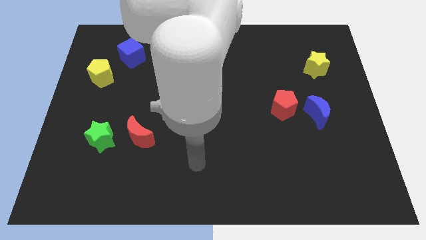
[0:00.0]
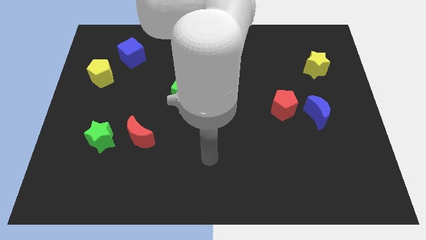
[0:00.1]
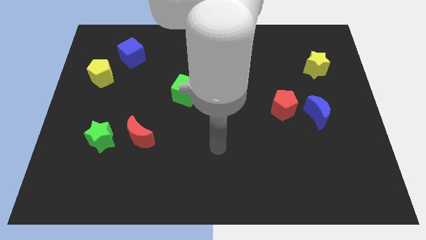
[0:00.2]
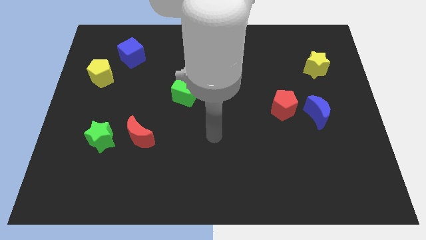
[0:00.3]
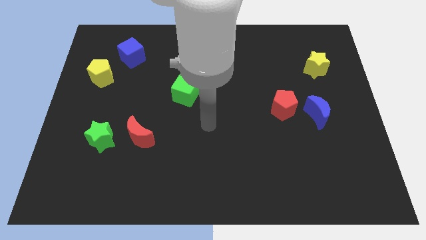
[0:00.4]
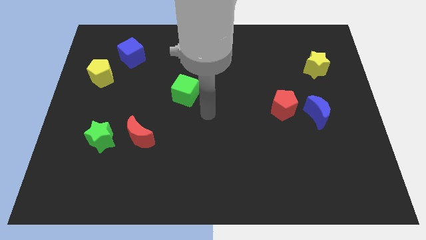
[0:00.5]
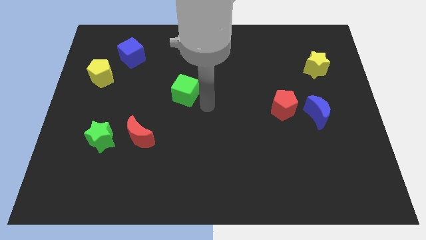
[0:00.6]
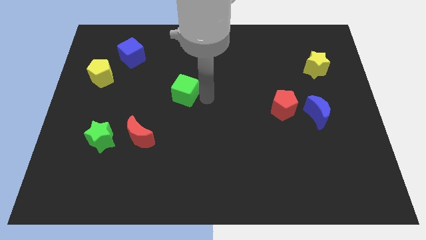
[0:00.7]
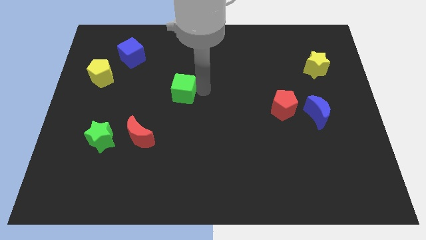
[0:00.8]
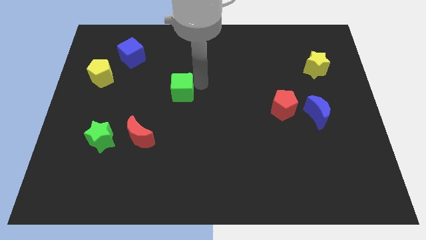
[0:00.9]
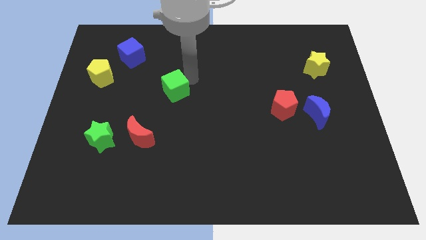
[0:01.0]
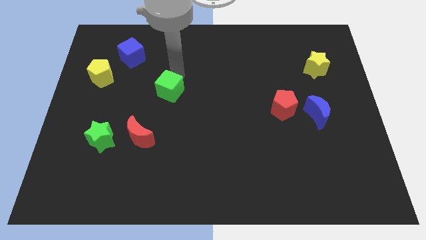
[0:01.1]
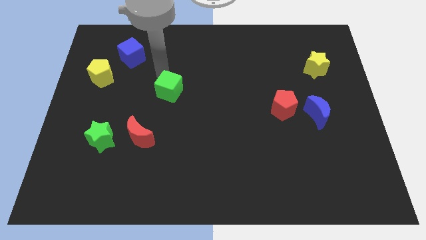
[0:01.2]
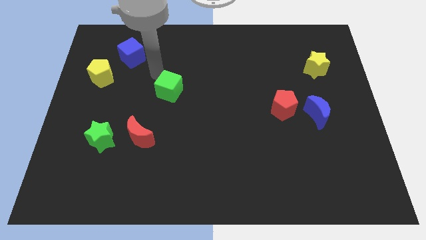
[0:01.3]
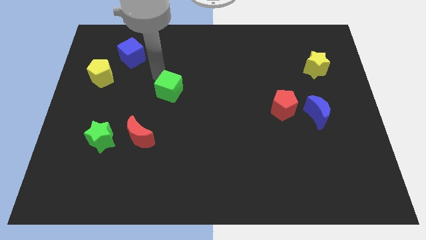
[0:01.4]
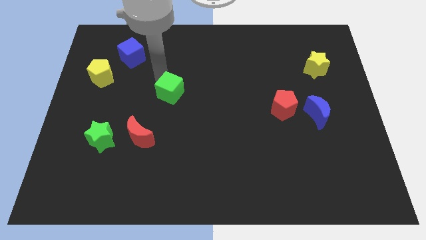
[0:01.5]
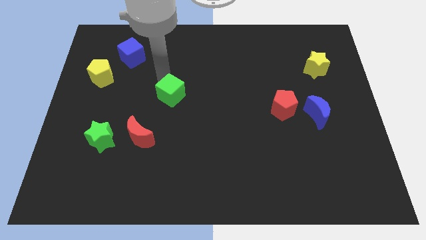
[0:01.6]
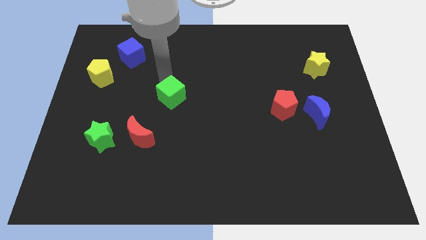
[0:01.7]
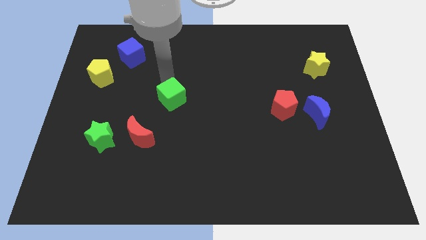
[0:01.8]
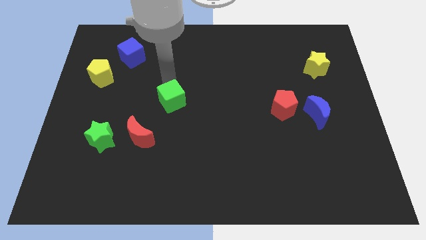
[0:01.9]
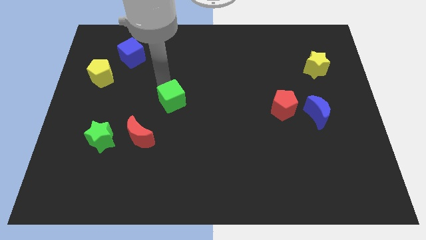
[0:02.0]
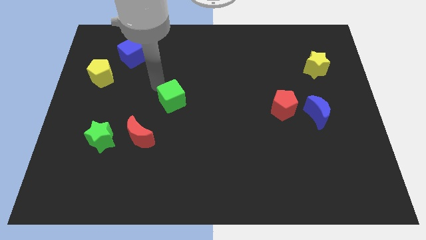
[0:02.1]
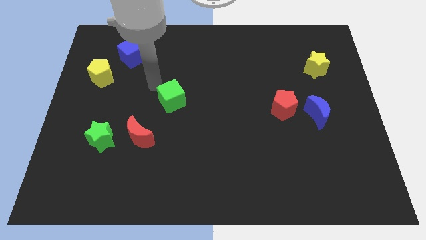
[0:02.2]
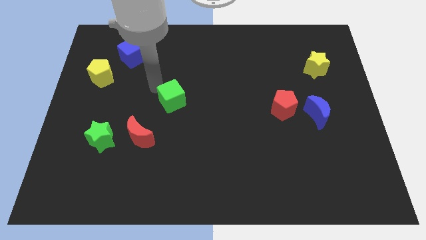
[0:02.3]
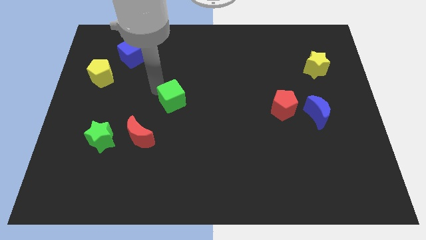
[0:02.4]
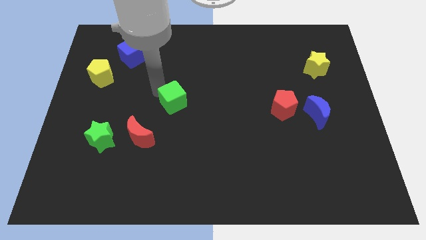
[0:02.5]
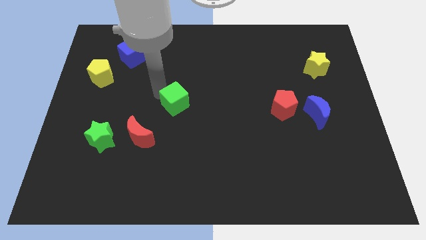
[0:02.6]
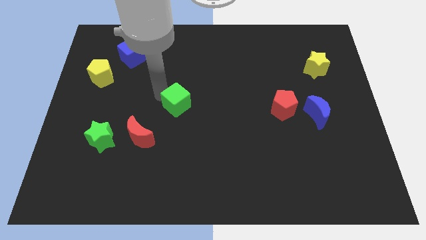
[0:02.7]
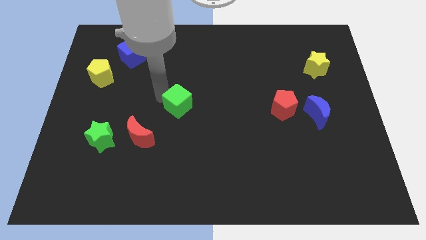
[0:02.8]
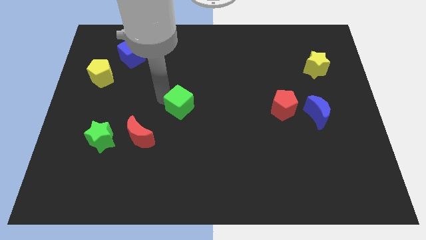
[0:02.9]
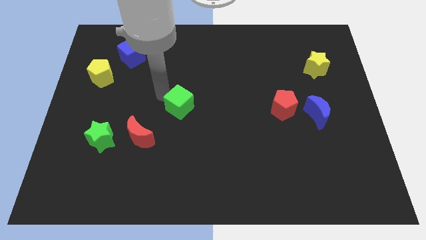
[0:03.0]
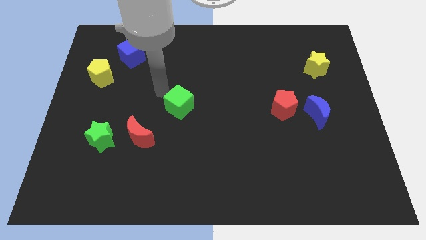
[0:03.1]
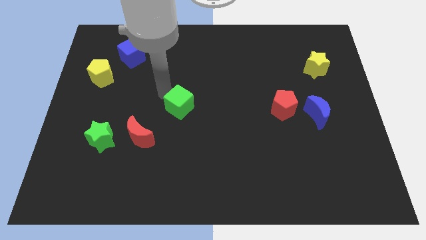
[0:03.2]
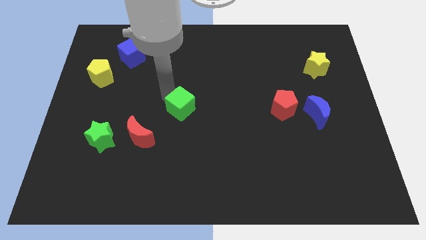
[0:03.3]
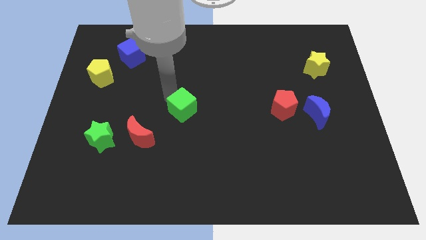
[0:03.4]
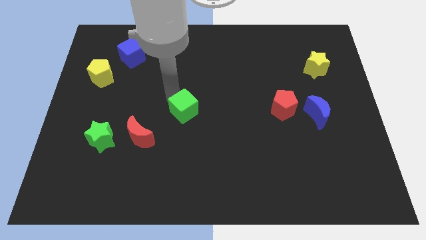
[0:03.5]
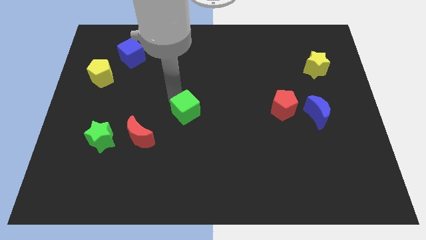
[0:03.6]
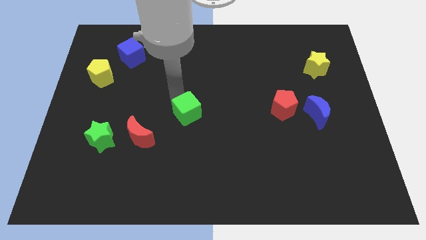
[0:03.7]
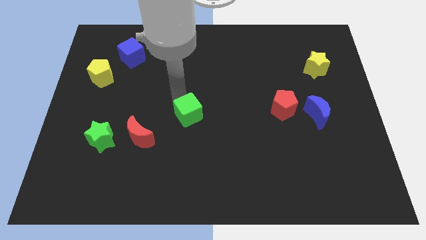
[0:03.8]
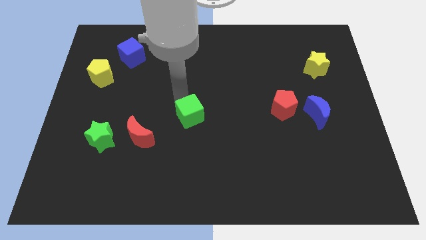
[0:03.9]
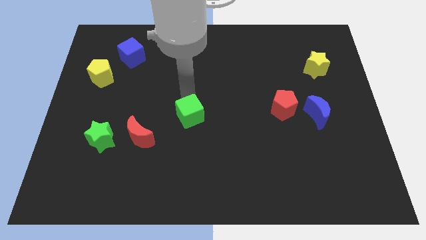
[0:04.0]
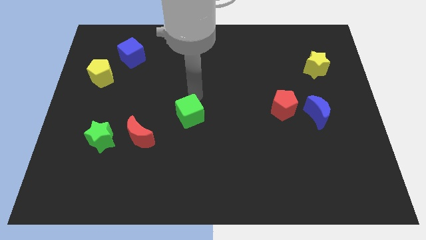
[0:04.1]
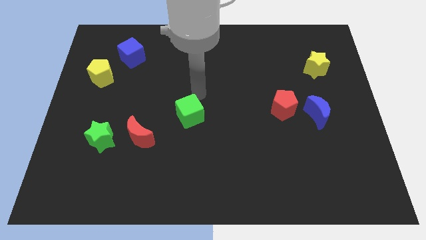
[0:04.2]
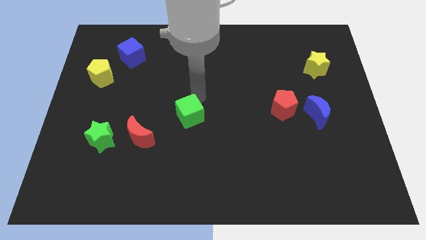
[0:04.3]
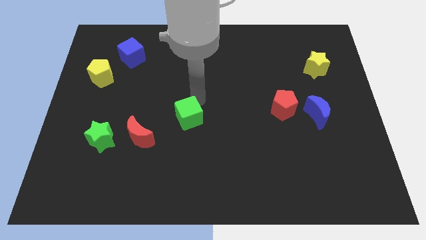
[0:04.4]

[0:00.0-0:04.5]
slightly move the green cube downwards

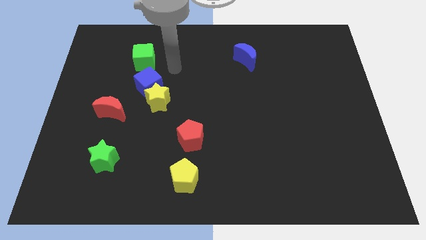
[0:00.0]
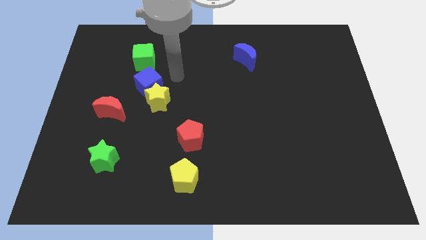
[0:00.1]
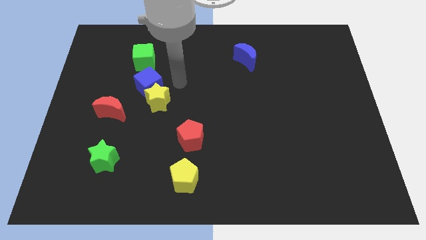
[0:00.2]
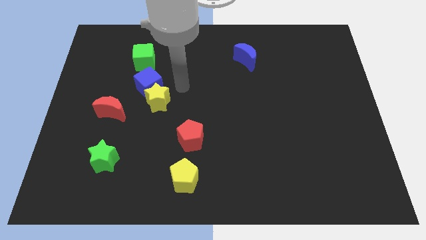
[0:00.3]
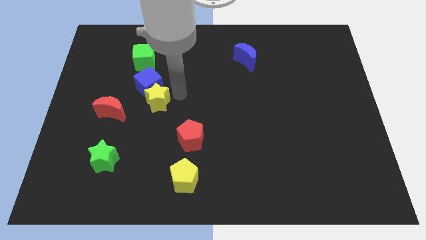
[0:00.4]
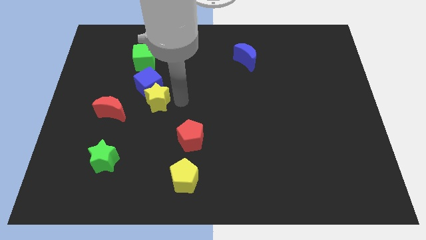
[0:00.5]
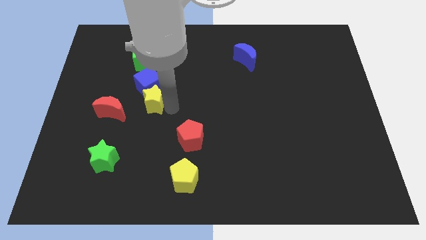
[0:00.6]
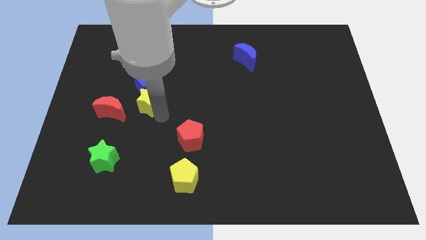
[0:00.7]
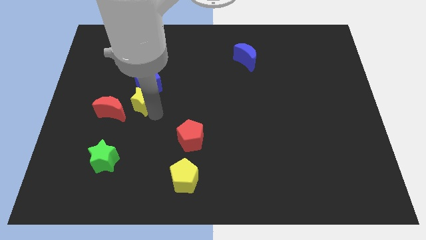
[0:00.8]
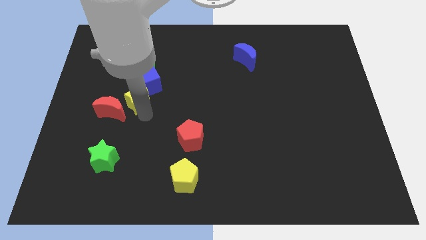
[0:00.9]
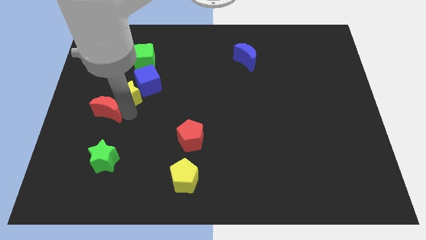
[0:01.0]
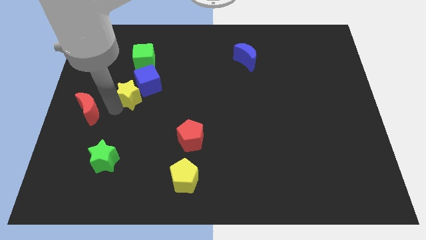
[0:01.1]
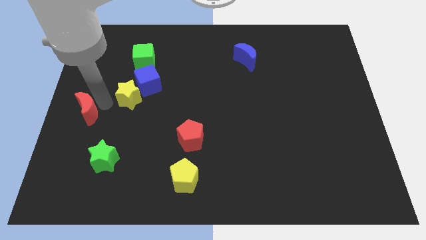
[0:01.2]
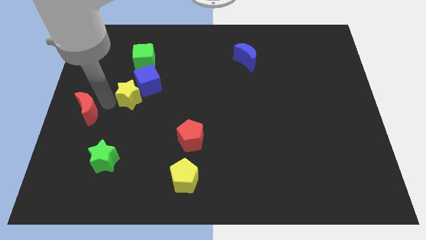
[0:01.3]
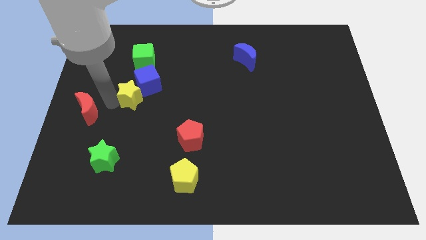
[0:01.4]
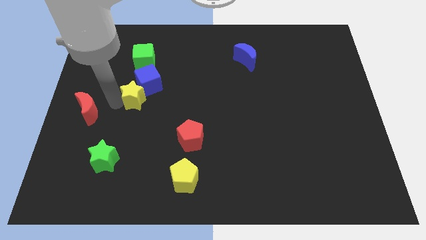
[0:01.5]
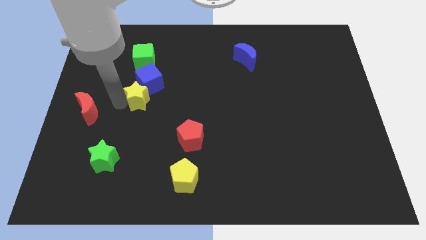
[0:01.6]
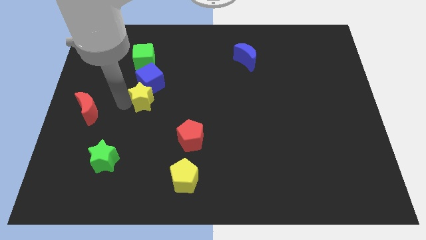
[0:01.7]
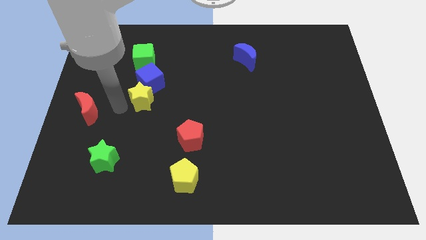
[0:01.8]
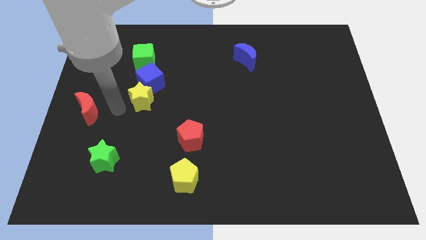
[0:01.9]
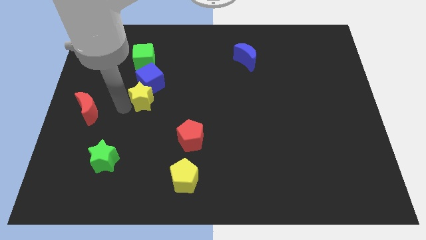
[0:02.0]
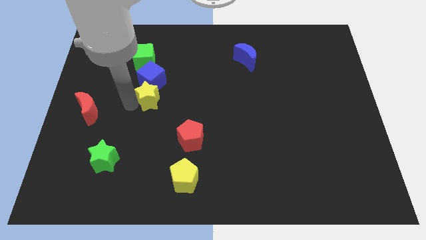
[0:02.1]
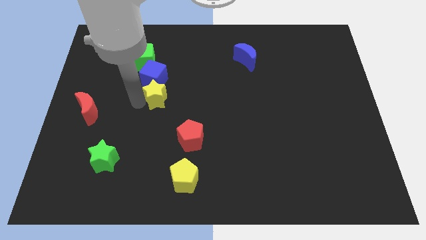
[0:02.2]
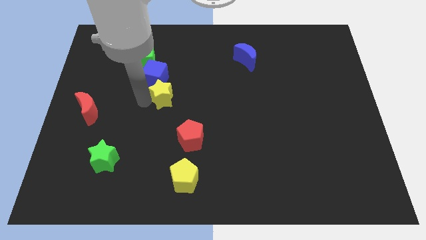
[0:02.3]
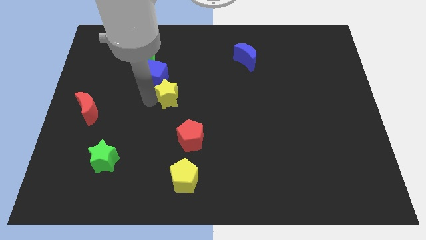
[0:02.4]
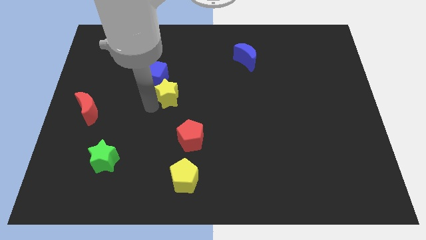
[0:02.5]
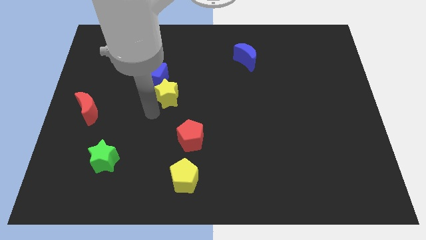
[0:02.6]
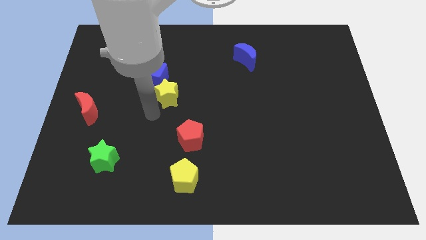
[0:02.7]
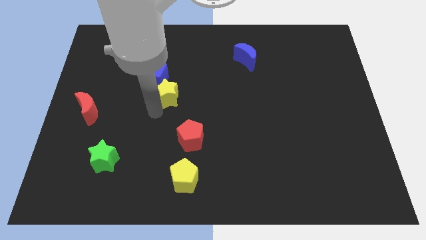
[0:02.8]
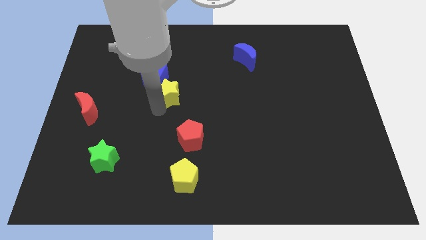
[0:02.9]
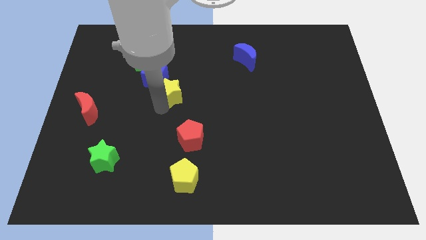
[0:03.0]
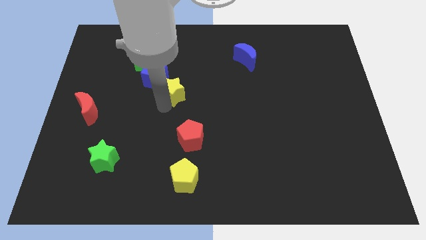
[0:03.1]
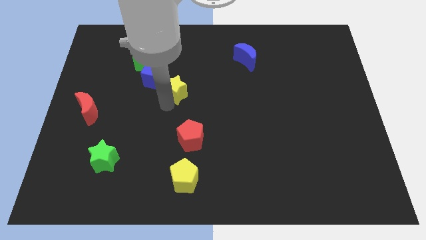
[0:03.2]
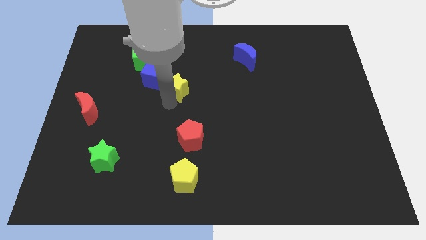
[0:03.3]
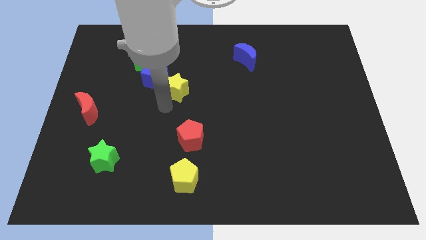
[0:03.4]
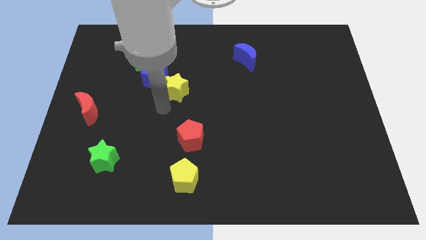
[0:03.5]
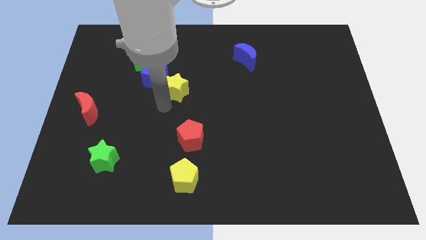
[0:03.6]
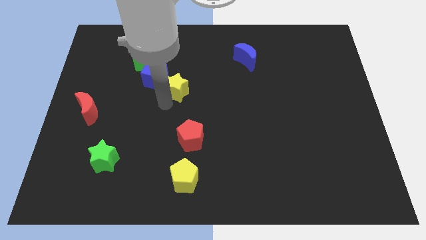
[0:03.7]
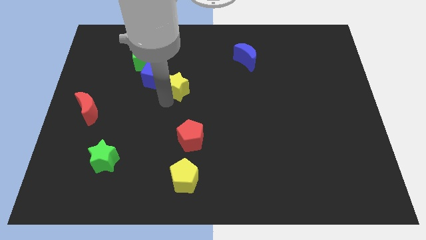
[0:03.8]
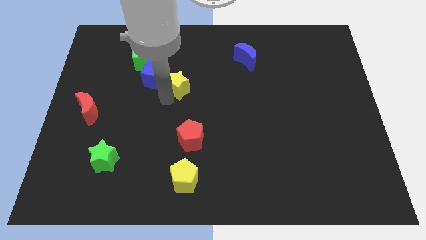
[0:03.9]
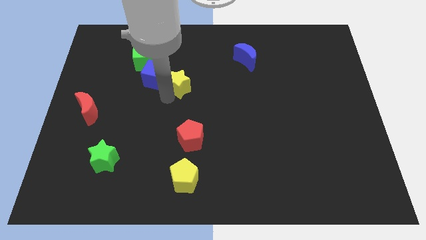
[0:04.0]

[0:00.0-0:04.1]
push the yellow star a bit up and right
